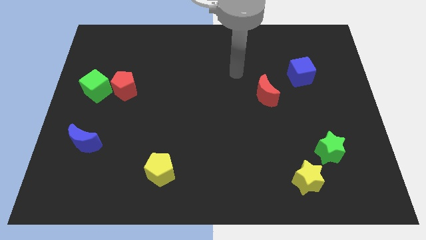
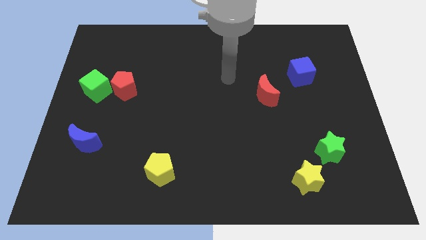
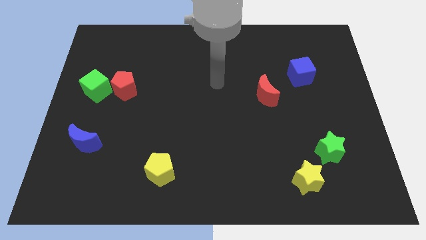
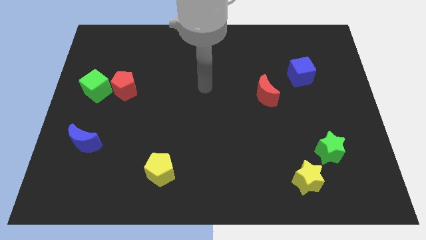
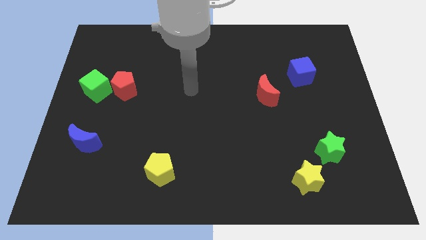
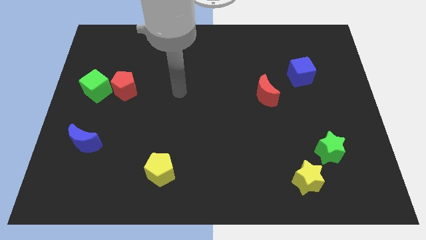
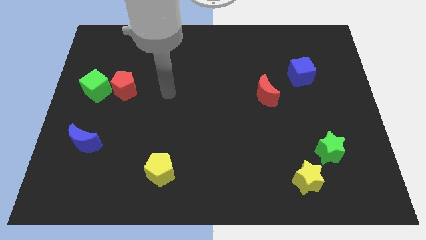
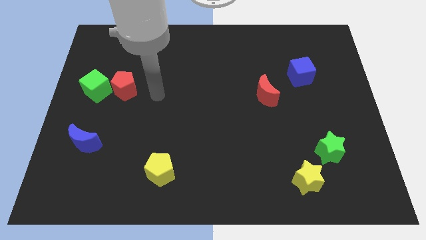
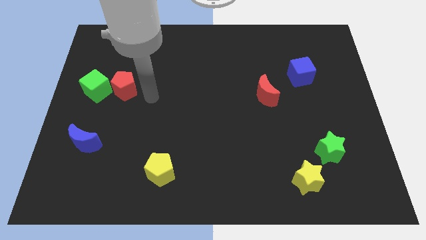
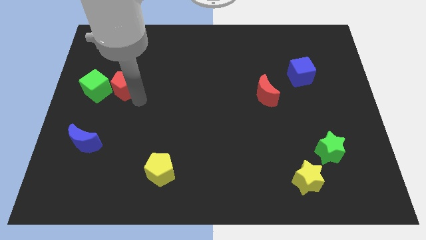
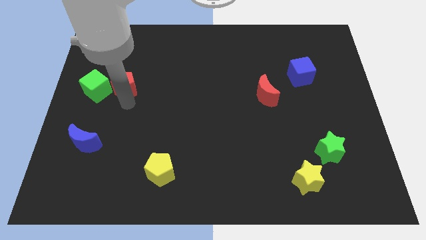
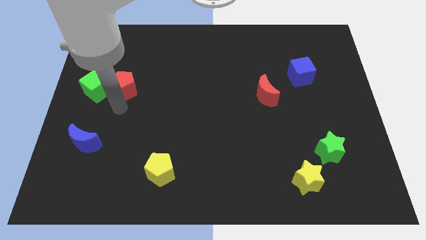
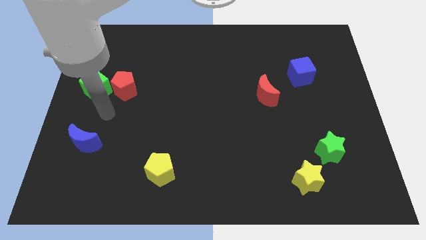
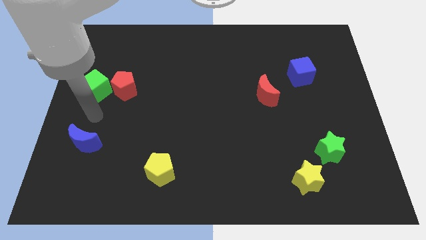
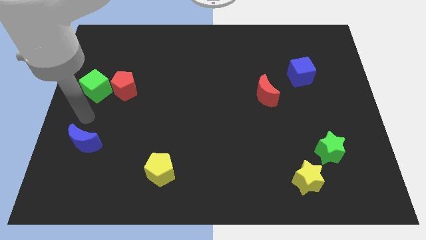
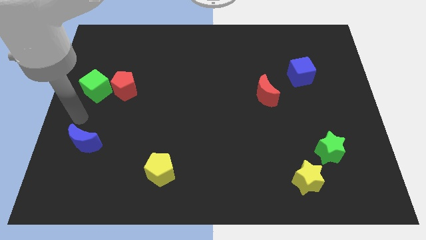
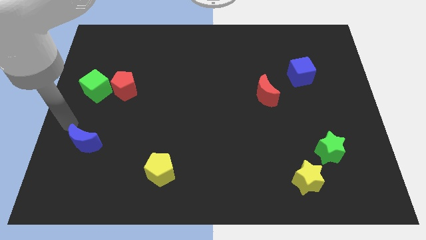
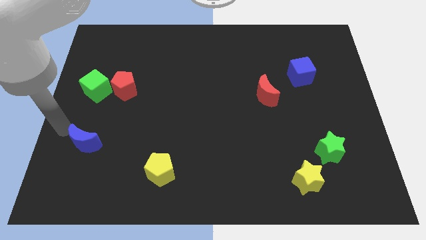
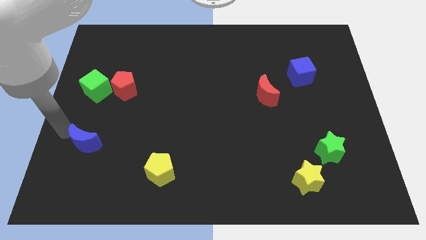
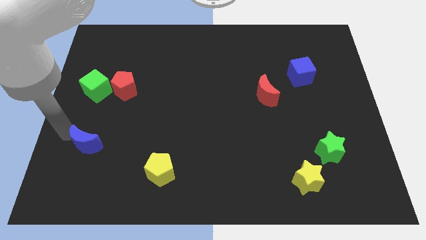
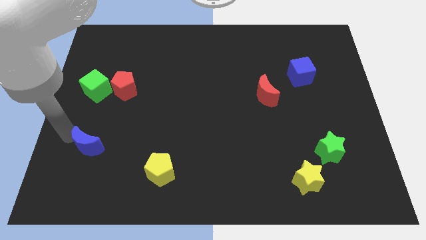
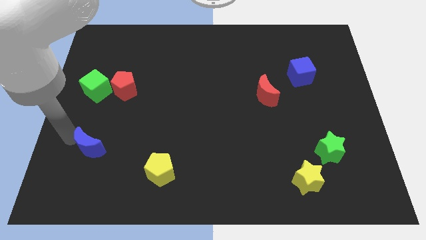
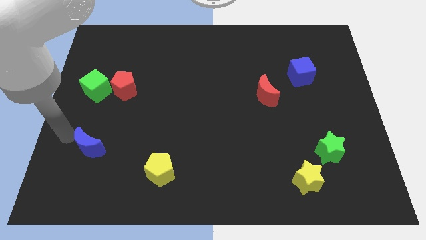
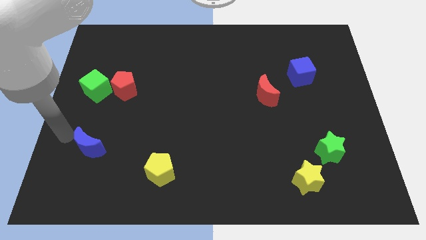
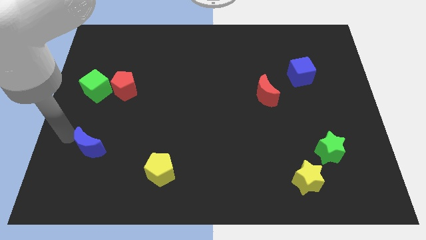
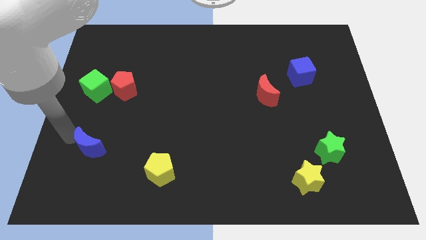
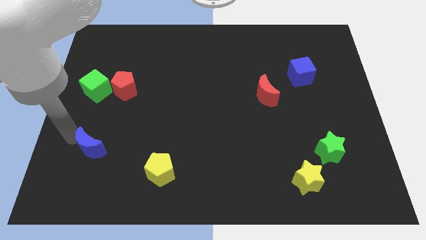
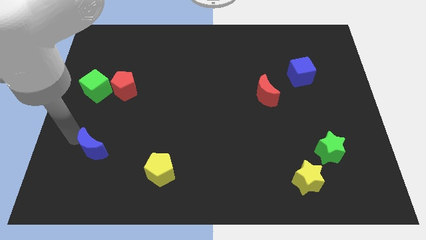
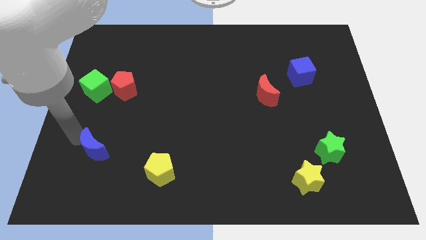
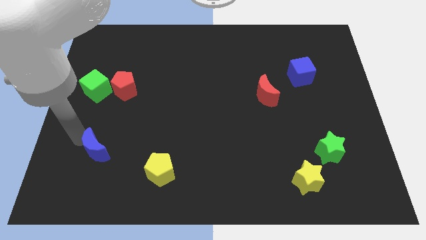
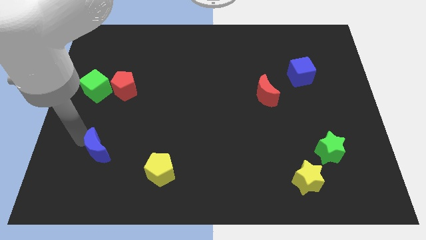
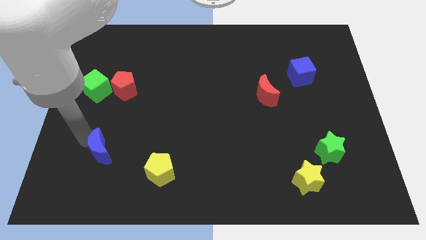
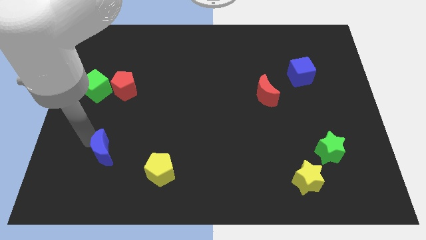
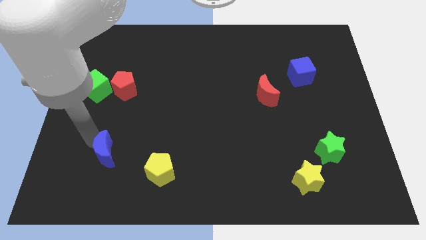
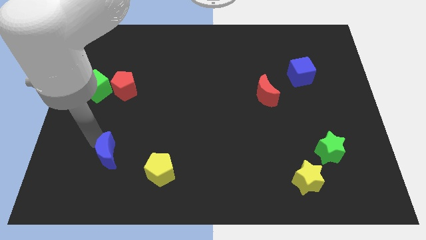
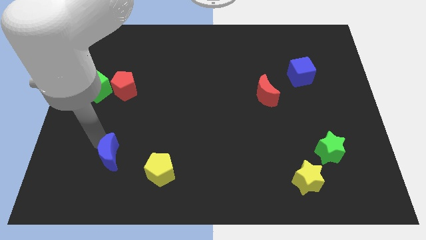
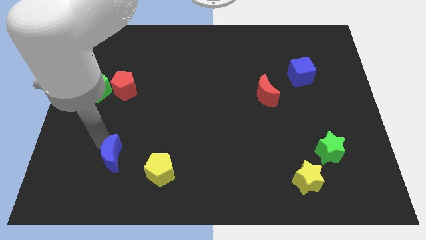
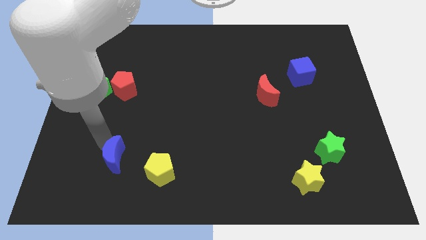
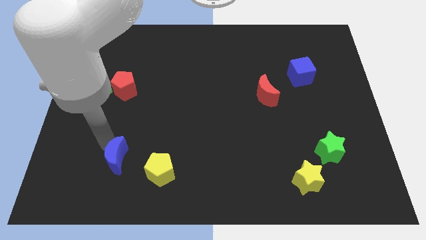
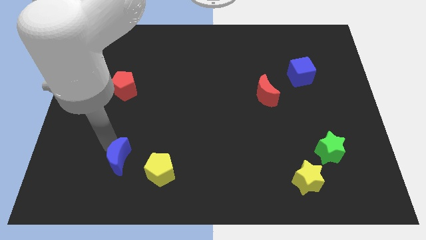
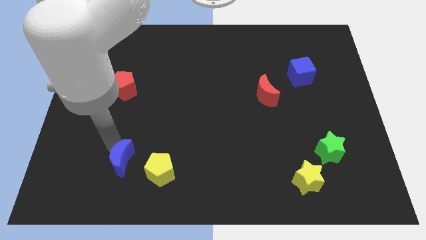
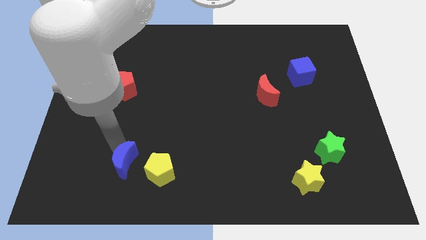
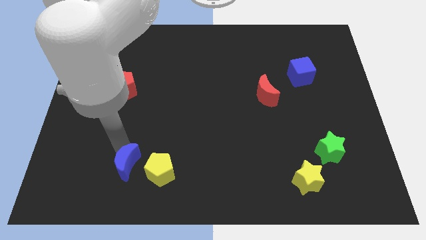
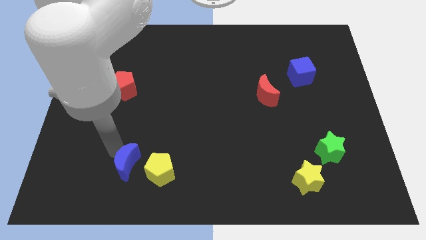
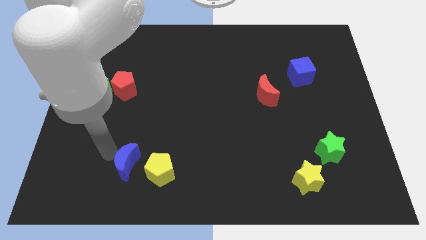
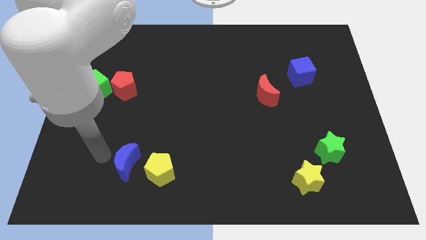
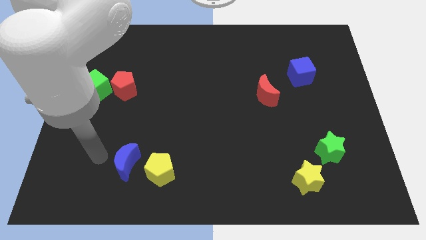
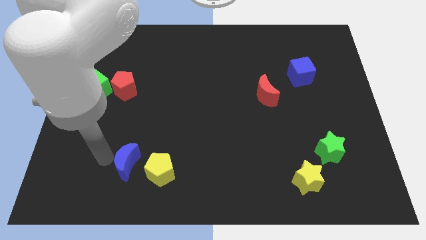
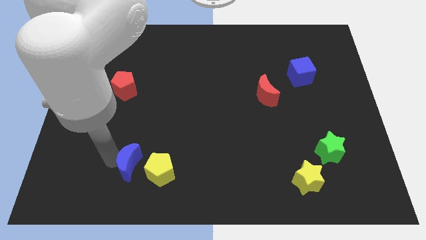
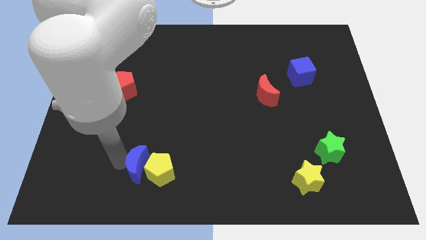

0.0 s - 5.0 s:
move the blue moon to the yellow pentagon

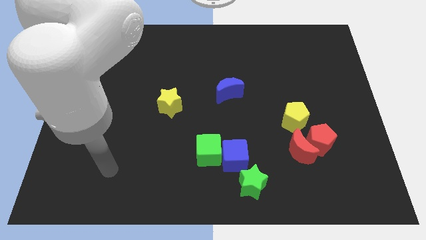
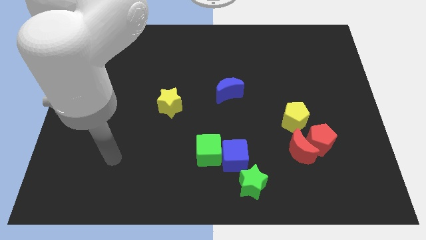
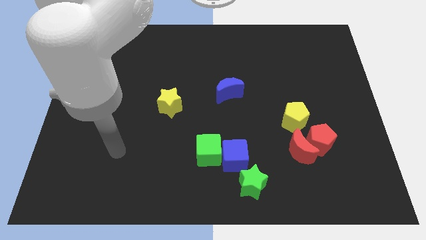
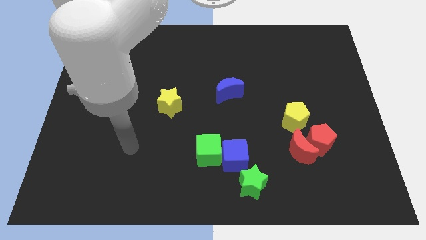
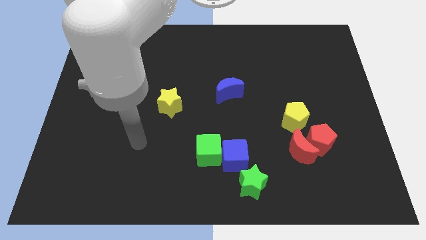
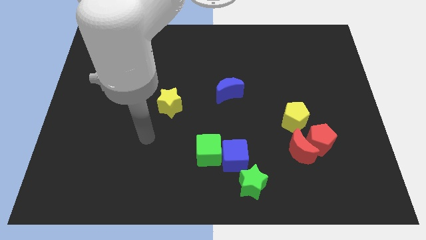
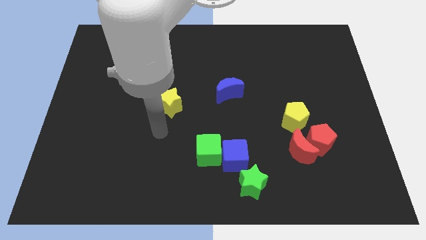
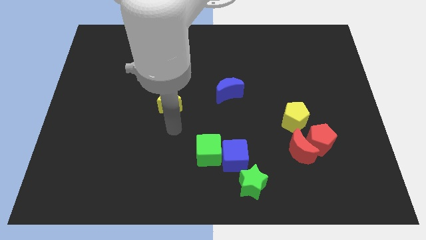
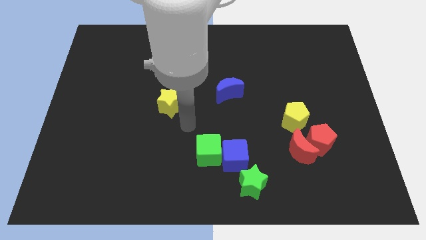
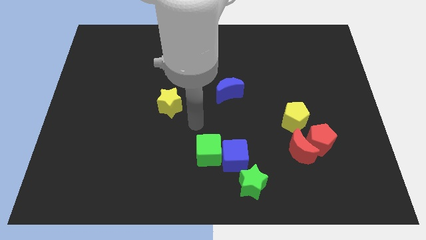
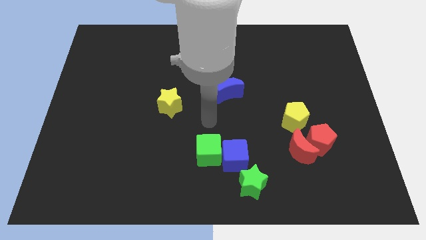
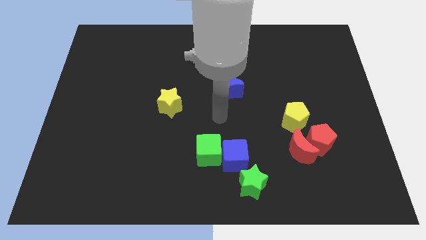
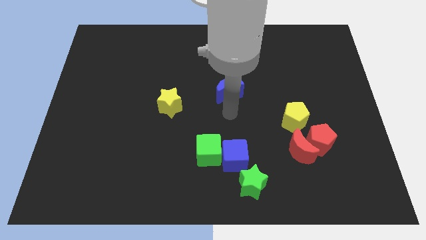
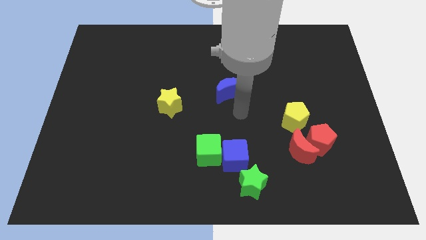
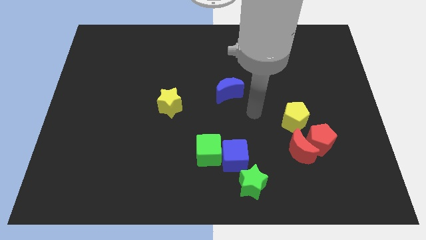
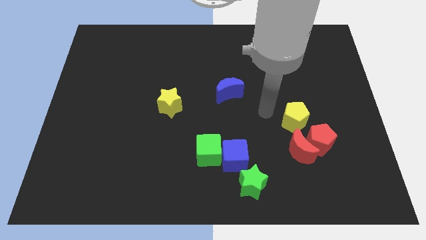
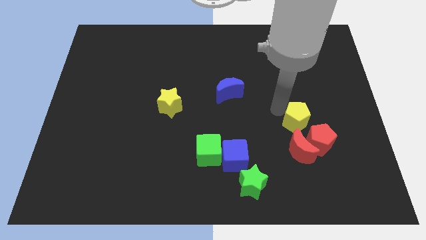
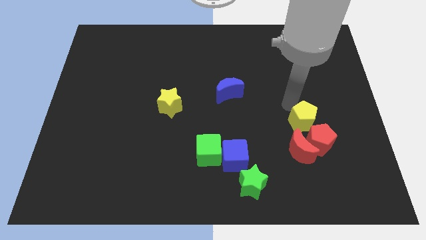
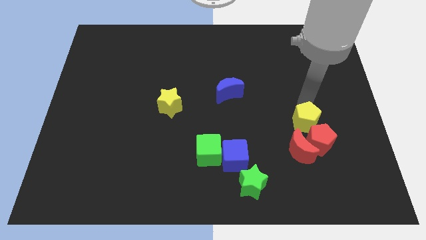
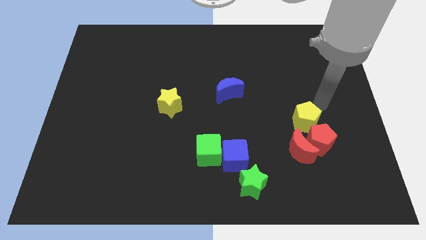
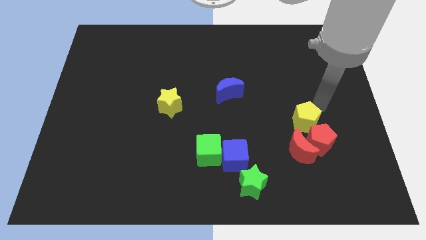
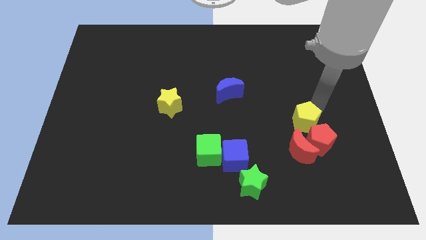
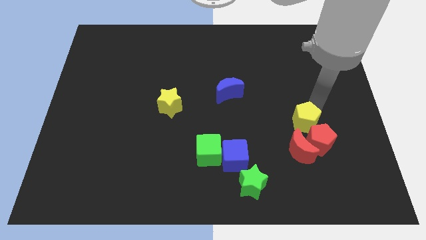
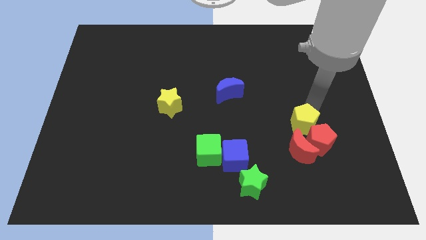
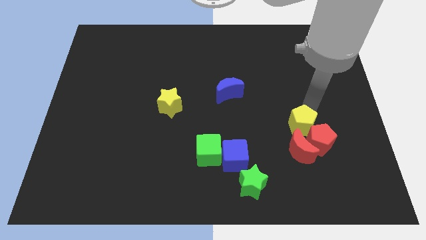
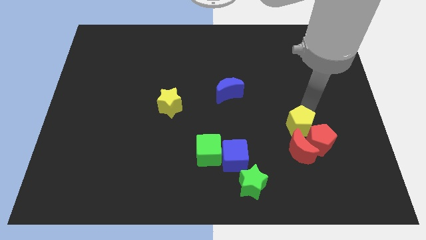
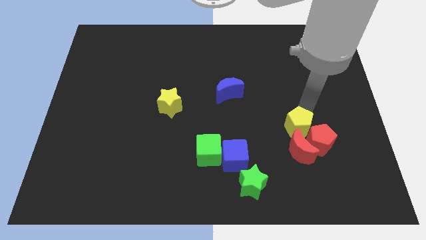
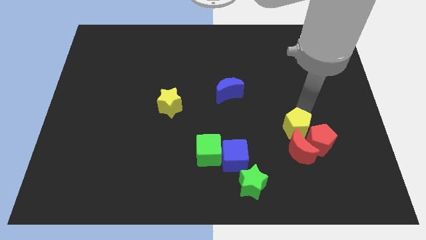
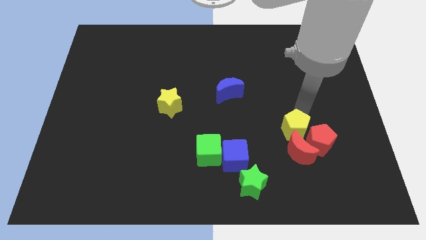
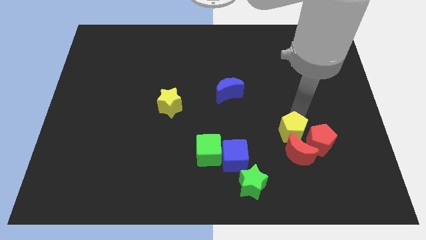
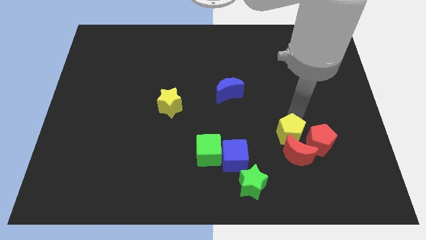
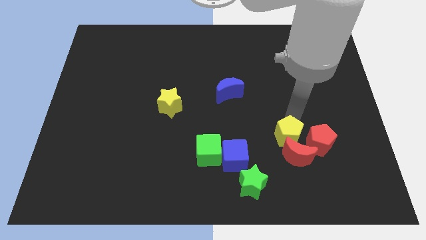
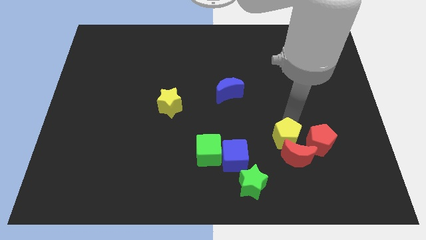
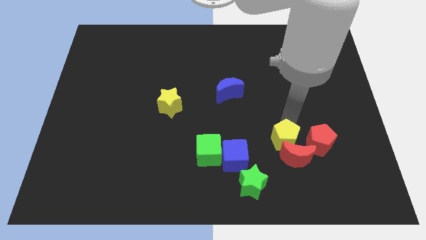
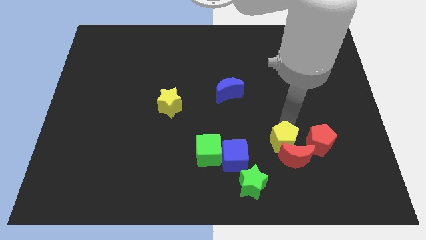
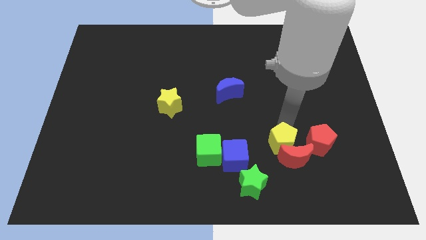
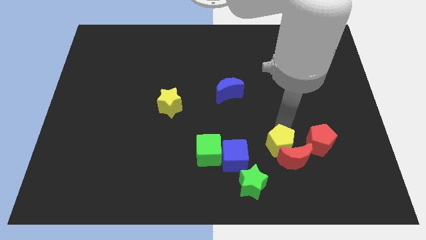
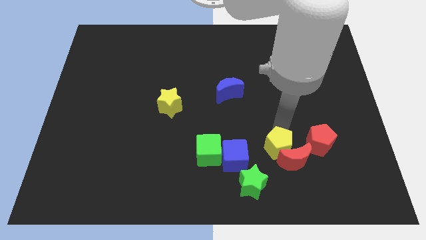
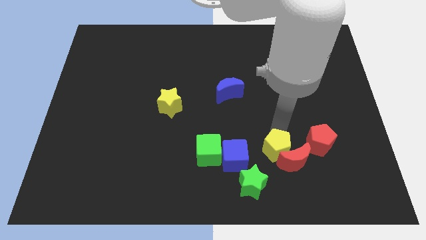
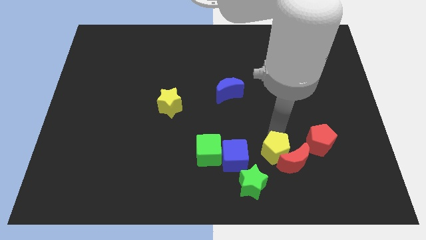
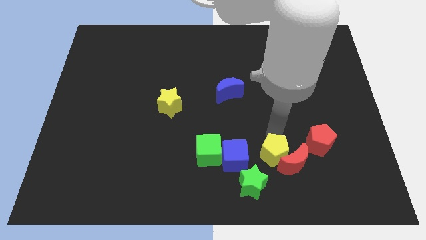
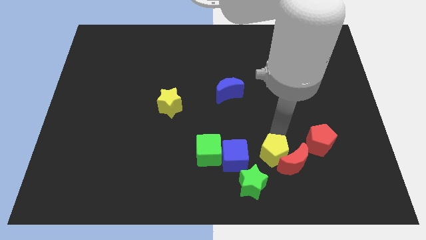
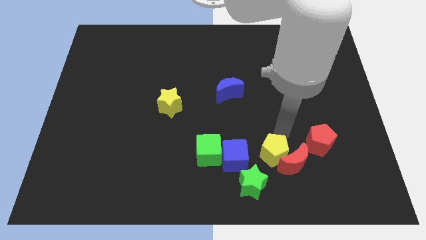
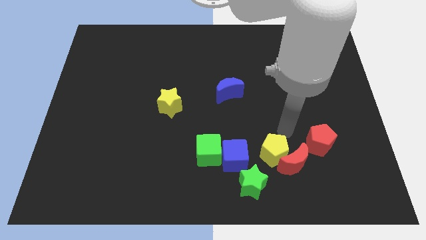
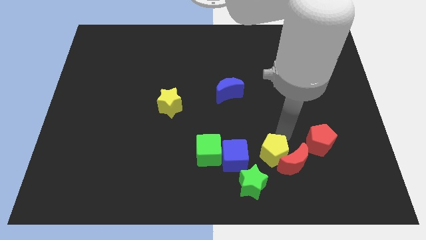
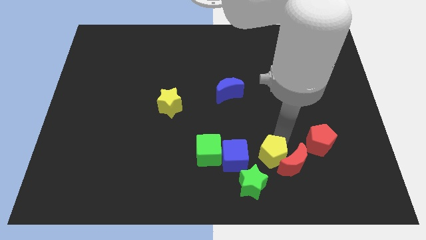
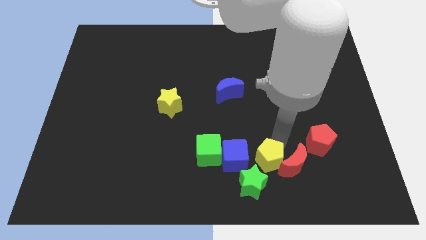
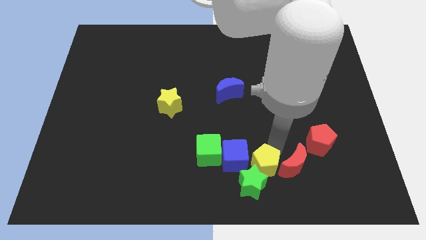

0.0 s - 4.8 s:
slide the yellow pentagon towards the green star
